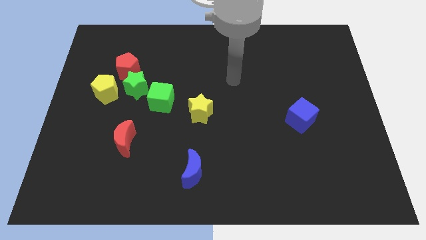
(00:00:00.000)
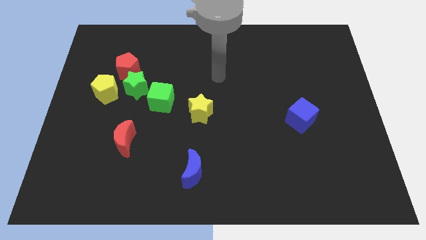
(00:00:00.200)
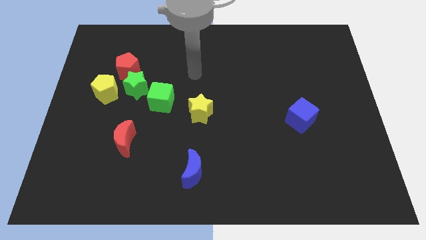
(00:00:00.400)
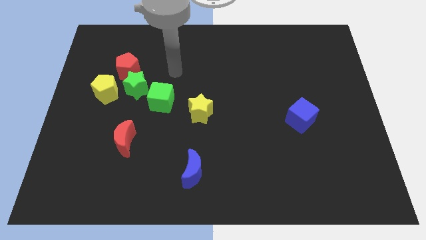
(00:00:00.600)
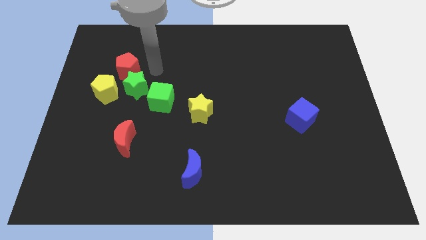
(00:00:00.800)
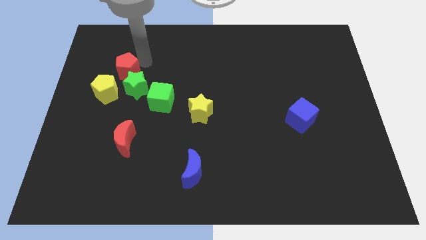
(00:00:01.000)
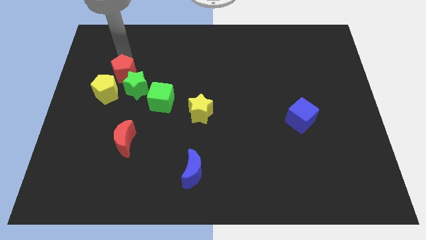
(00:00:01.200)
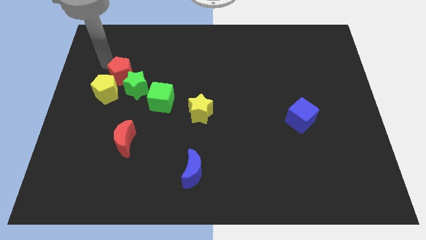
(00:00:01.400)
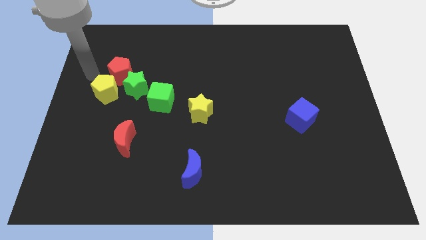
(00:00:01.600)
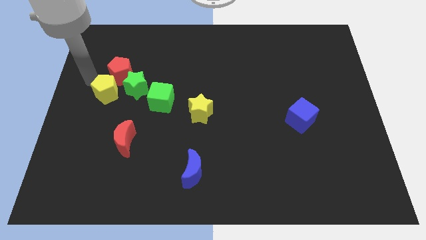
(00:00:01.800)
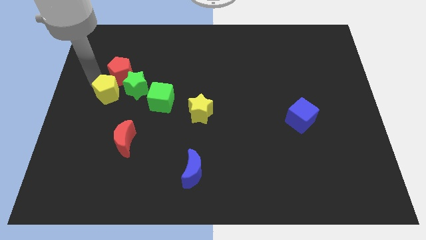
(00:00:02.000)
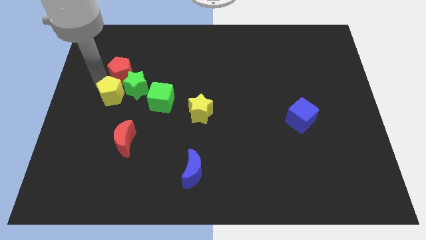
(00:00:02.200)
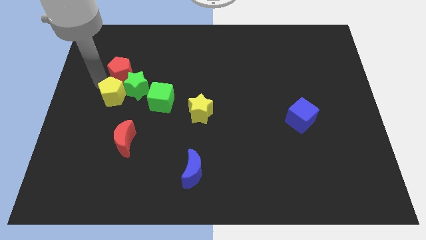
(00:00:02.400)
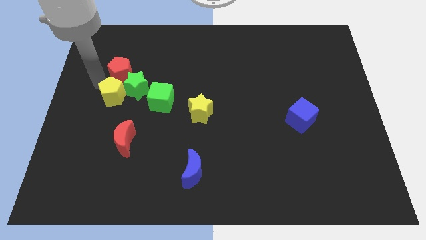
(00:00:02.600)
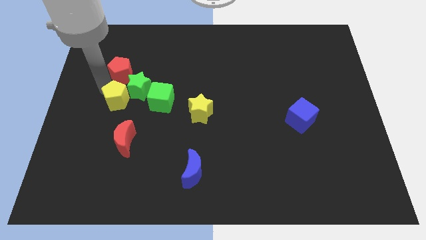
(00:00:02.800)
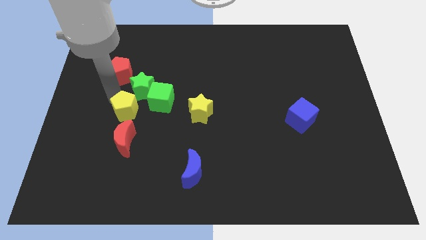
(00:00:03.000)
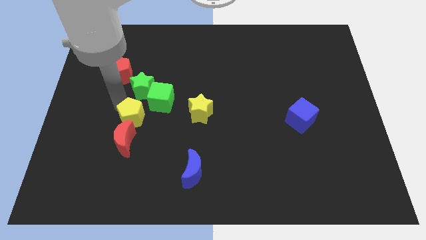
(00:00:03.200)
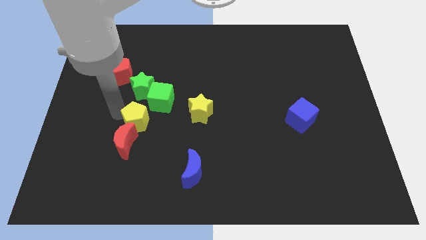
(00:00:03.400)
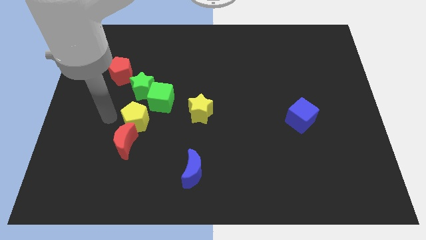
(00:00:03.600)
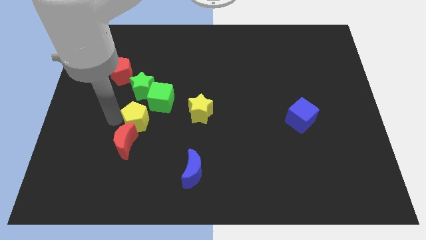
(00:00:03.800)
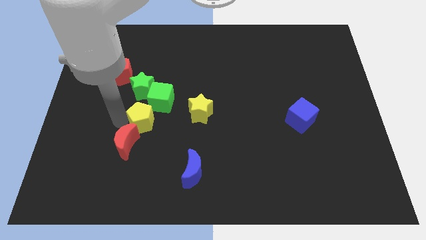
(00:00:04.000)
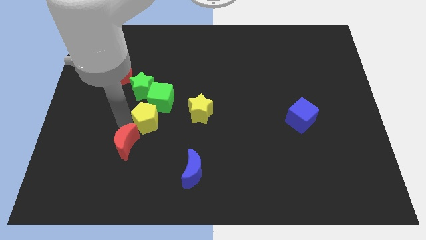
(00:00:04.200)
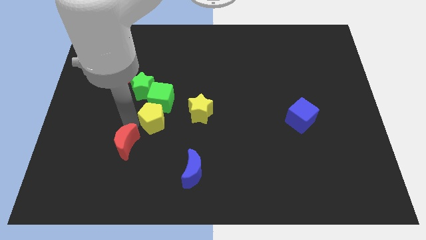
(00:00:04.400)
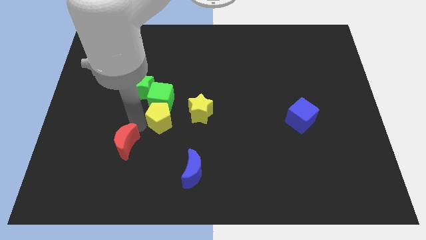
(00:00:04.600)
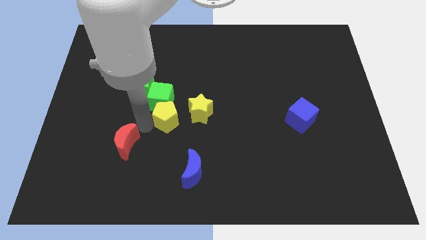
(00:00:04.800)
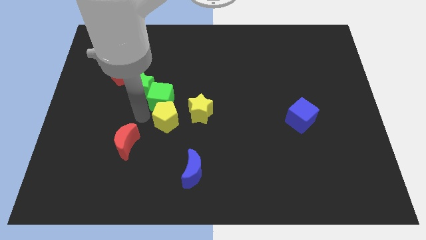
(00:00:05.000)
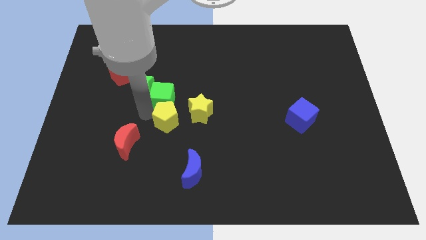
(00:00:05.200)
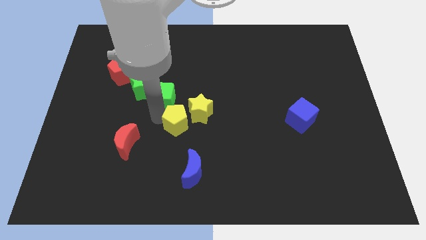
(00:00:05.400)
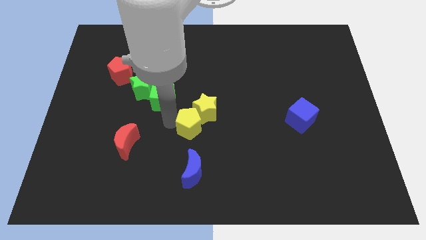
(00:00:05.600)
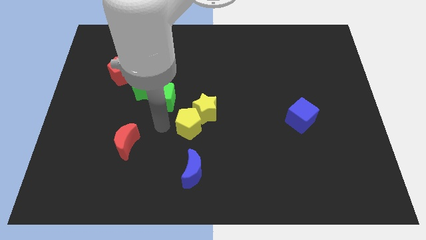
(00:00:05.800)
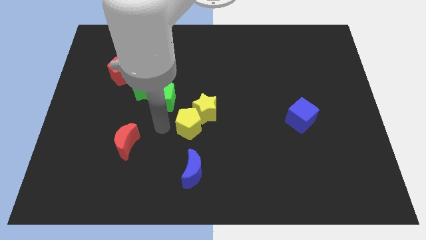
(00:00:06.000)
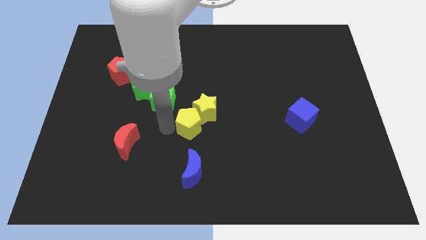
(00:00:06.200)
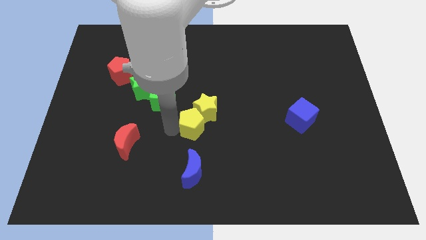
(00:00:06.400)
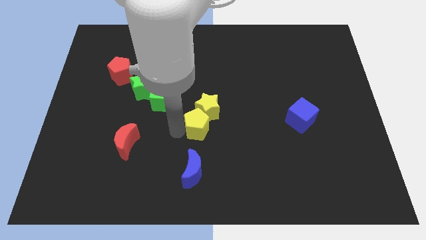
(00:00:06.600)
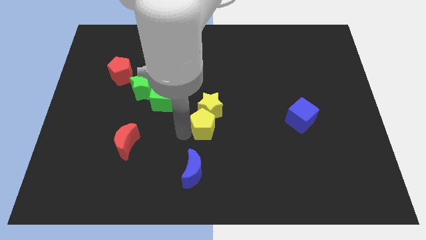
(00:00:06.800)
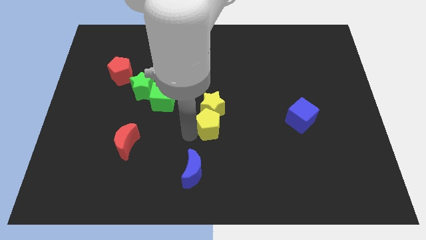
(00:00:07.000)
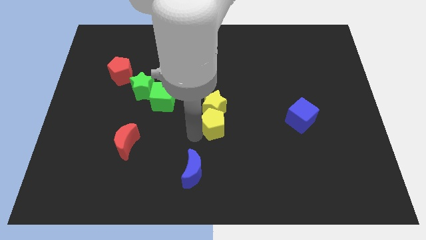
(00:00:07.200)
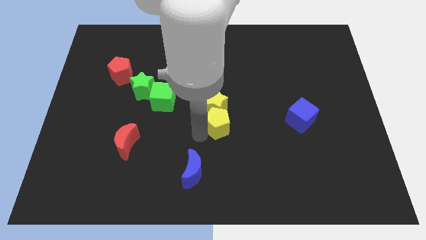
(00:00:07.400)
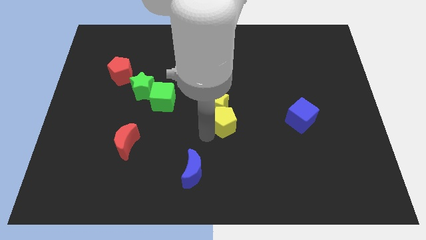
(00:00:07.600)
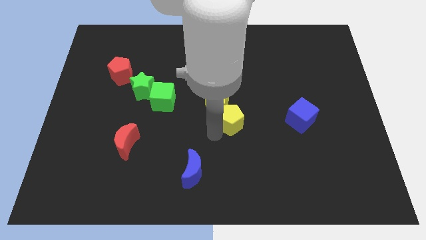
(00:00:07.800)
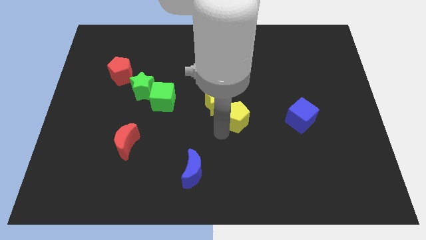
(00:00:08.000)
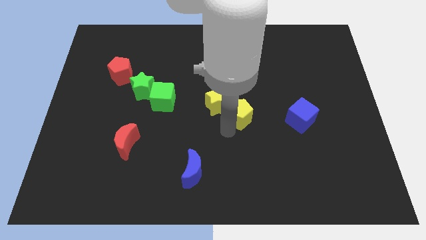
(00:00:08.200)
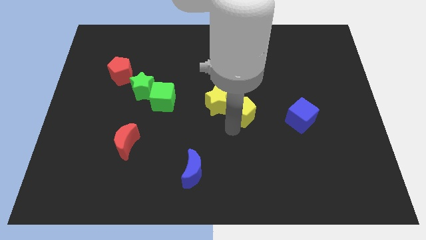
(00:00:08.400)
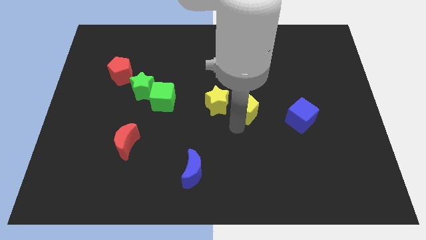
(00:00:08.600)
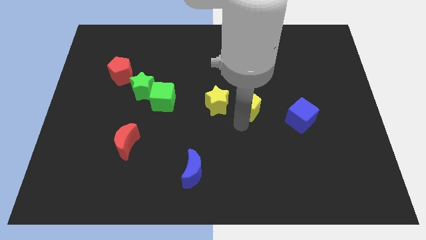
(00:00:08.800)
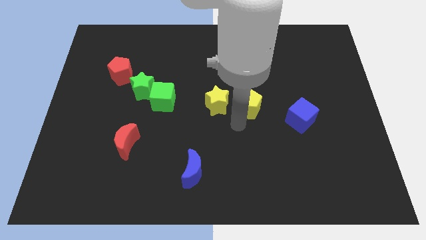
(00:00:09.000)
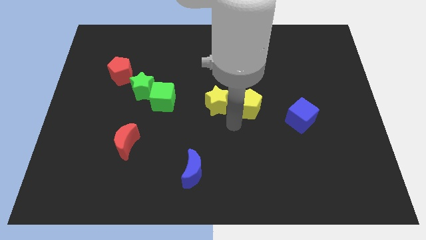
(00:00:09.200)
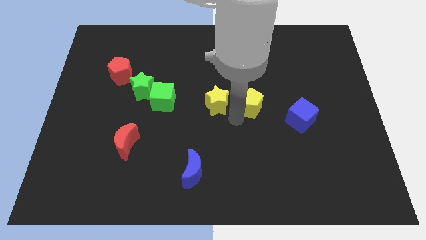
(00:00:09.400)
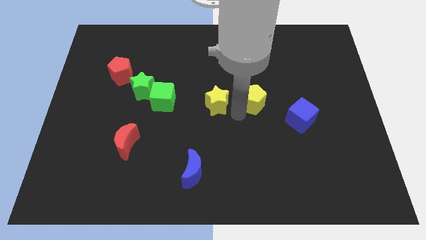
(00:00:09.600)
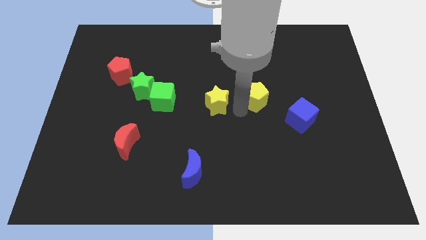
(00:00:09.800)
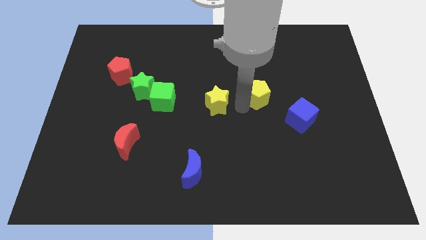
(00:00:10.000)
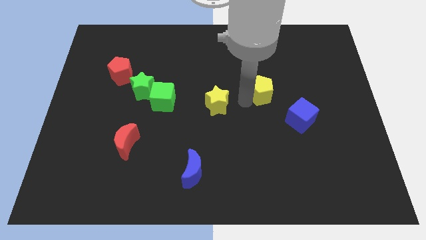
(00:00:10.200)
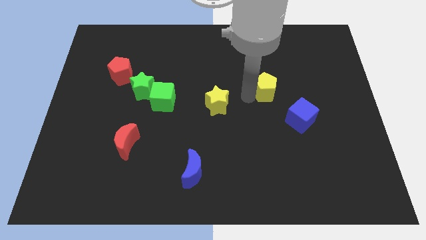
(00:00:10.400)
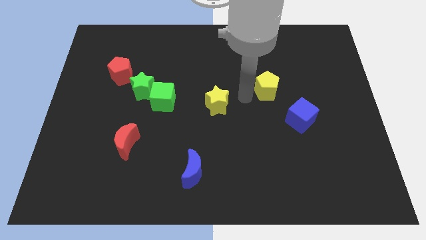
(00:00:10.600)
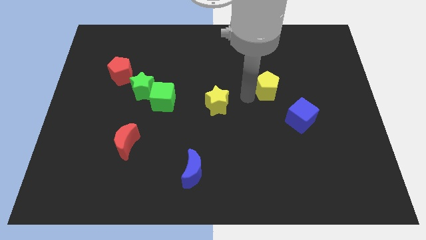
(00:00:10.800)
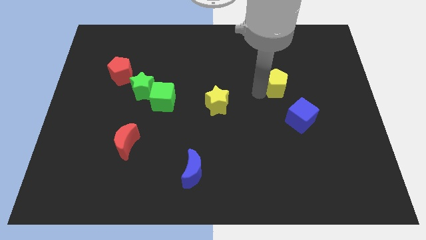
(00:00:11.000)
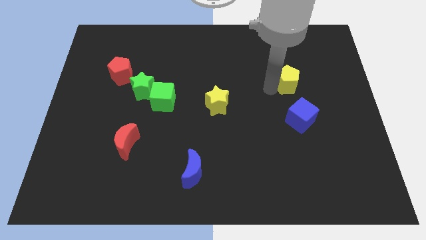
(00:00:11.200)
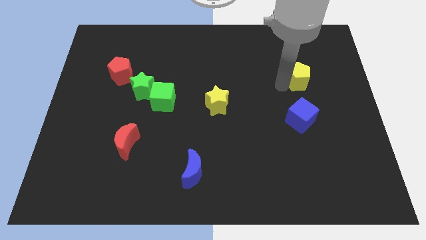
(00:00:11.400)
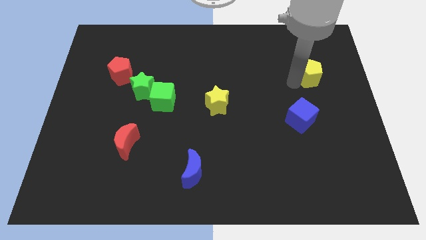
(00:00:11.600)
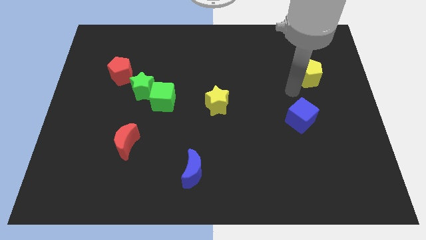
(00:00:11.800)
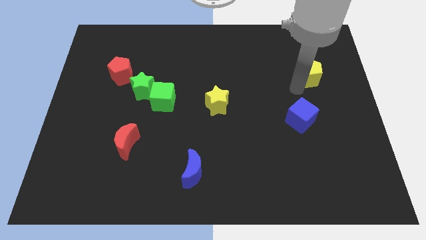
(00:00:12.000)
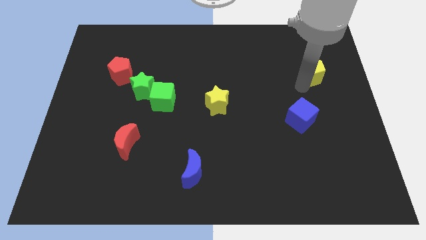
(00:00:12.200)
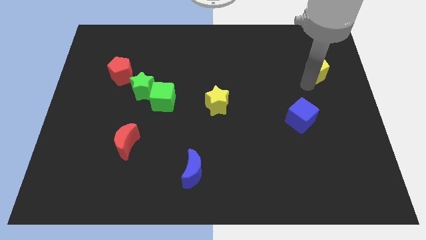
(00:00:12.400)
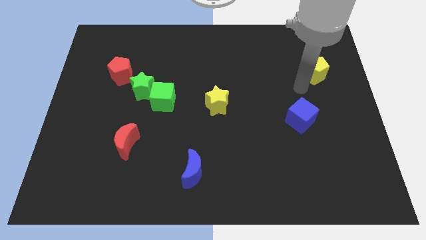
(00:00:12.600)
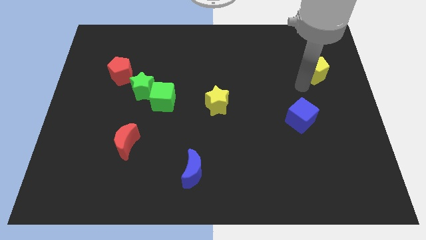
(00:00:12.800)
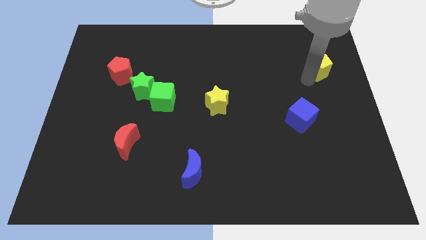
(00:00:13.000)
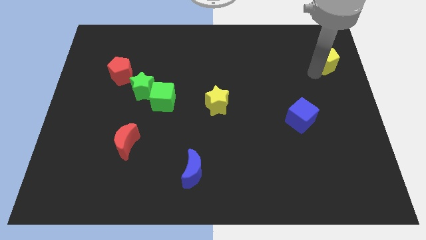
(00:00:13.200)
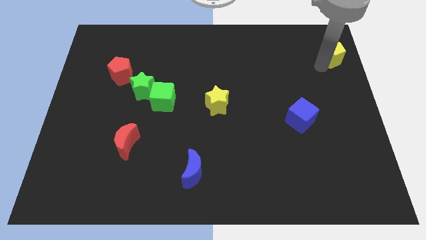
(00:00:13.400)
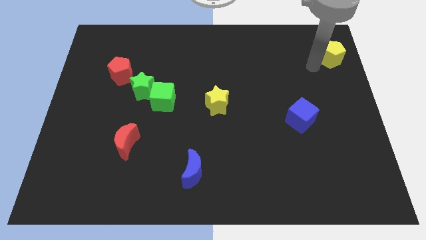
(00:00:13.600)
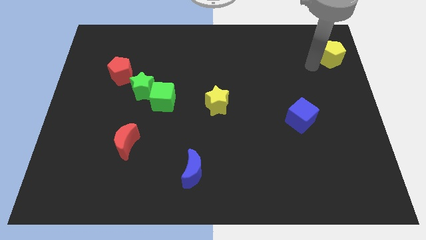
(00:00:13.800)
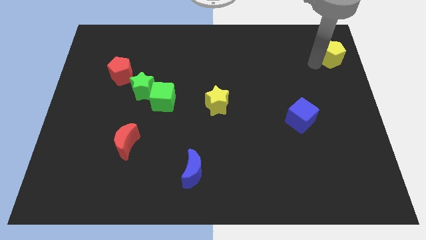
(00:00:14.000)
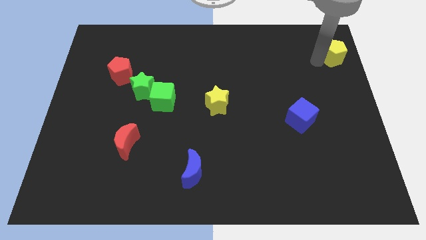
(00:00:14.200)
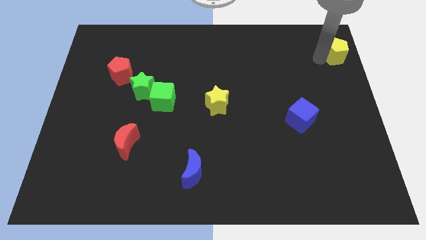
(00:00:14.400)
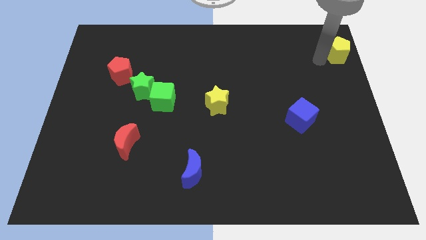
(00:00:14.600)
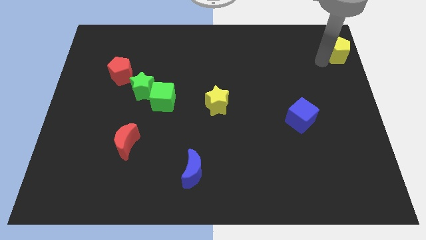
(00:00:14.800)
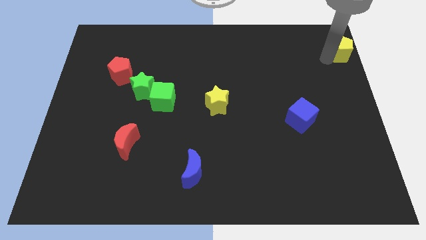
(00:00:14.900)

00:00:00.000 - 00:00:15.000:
move the yellow pentagon to the top right of the board
